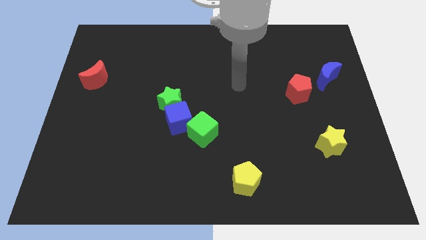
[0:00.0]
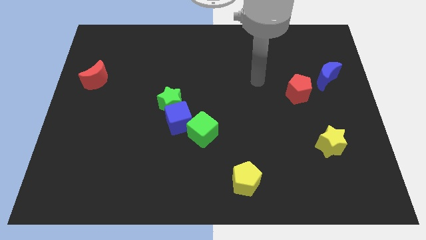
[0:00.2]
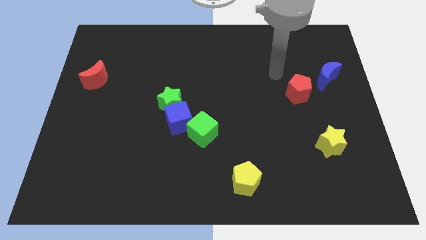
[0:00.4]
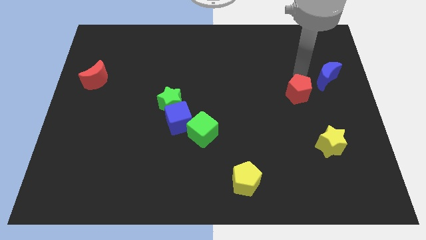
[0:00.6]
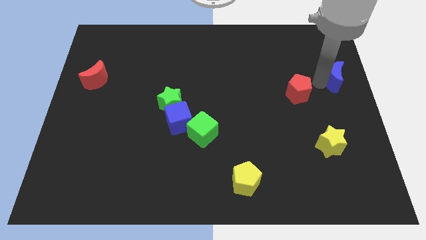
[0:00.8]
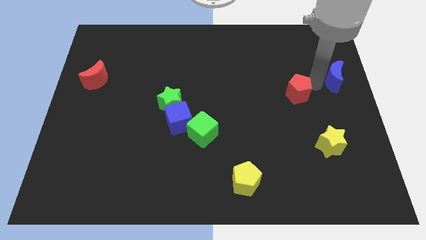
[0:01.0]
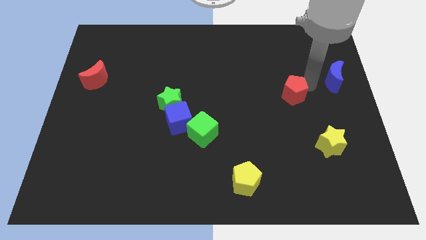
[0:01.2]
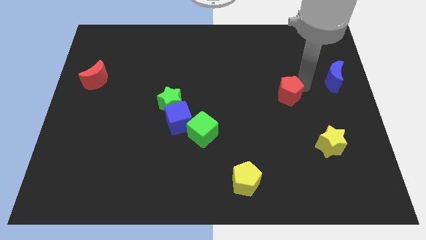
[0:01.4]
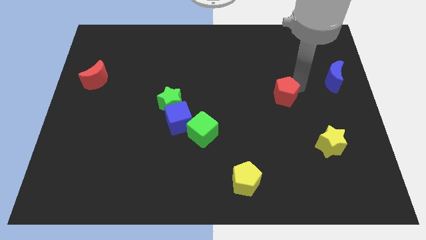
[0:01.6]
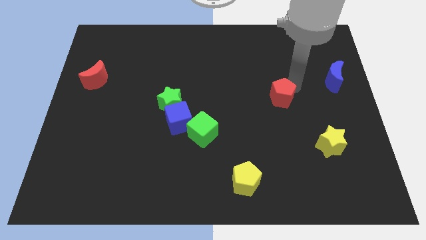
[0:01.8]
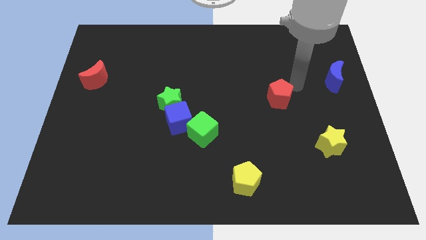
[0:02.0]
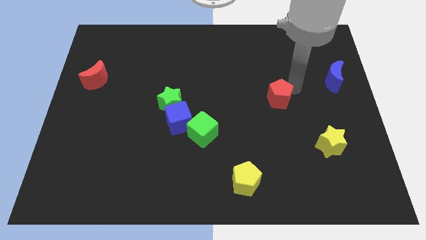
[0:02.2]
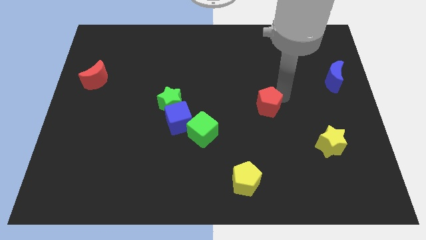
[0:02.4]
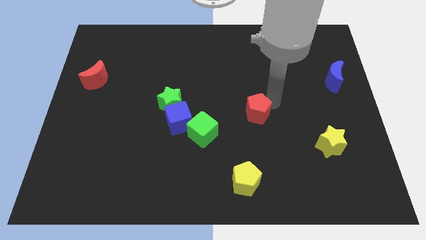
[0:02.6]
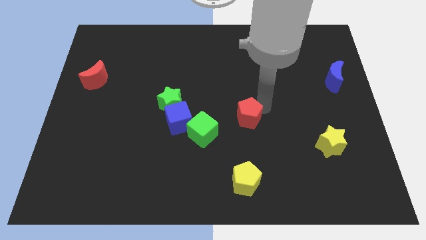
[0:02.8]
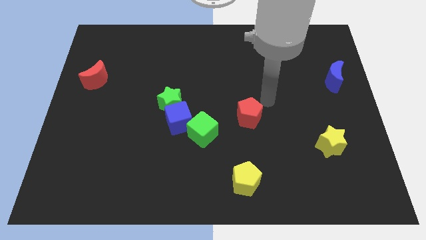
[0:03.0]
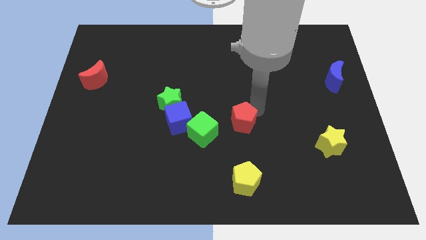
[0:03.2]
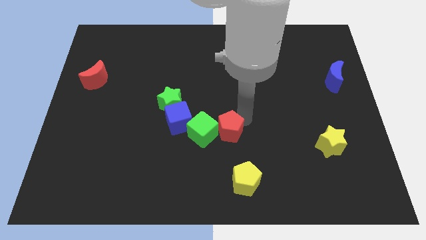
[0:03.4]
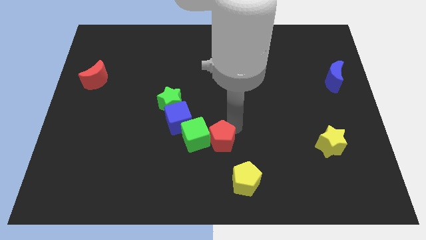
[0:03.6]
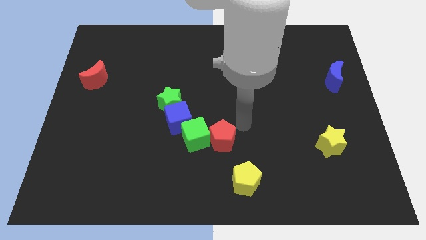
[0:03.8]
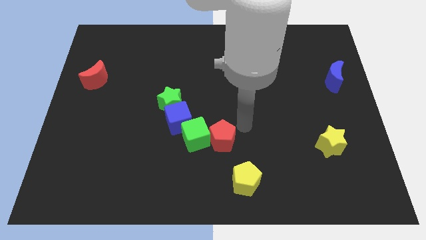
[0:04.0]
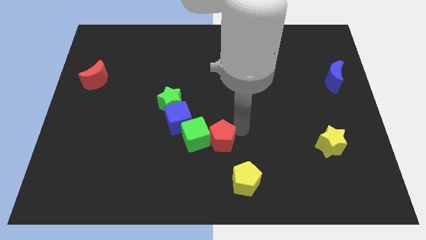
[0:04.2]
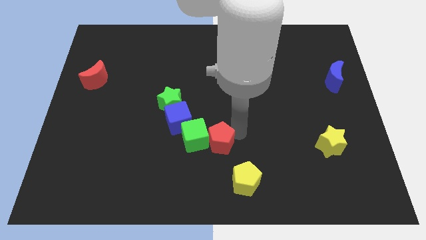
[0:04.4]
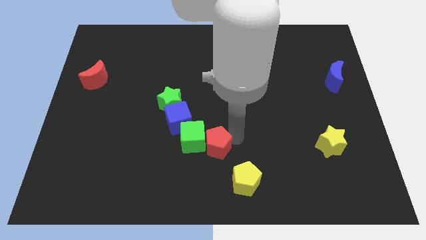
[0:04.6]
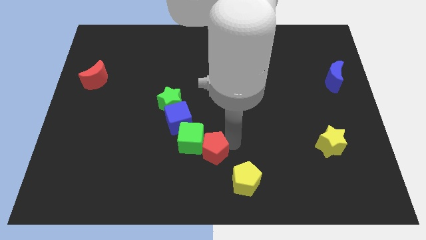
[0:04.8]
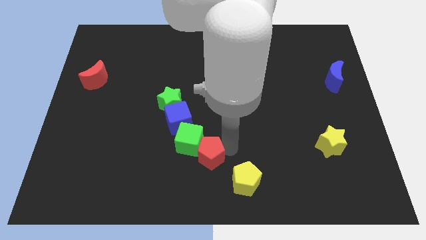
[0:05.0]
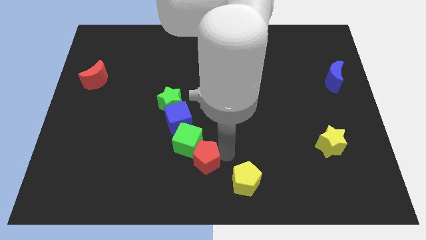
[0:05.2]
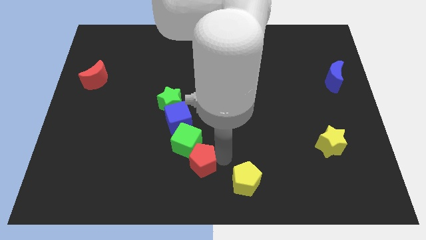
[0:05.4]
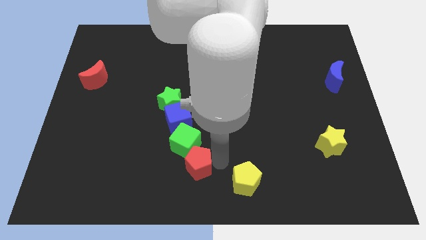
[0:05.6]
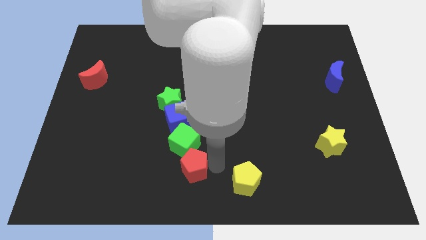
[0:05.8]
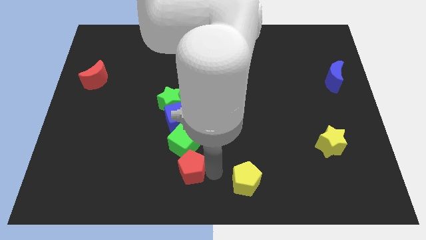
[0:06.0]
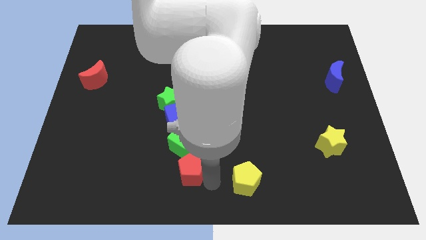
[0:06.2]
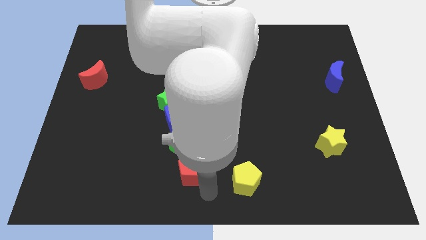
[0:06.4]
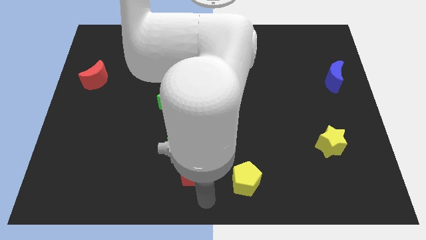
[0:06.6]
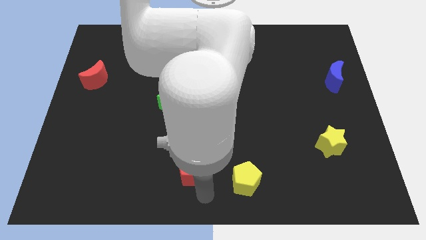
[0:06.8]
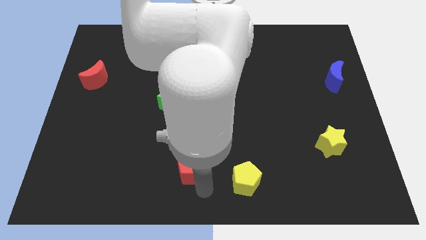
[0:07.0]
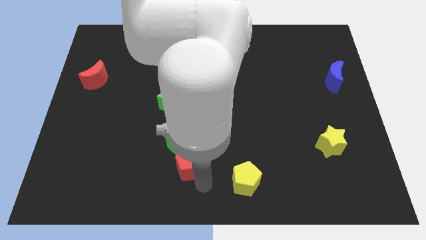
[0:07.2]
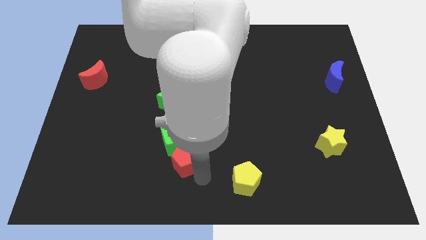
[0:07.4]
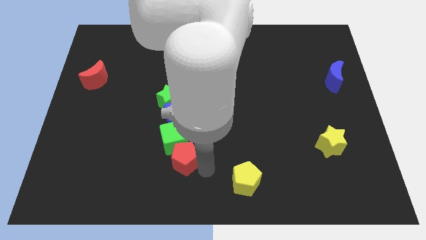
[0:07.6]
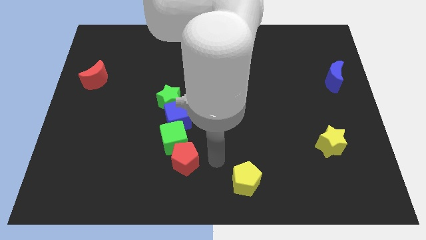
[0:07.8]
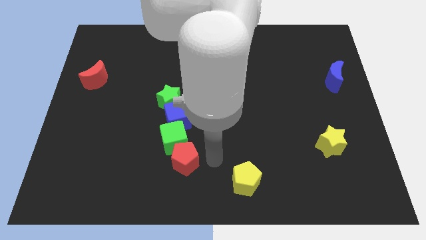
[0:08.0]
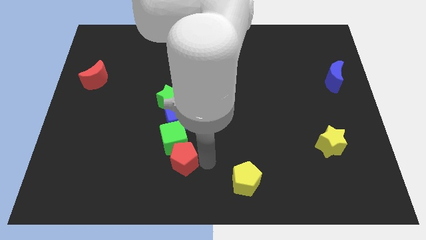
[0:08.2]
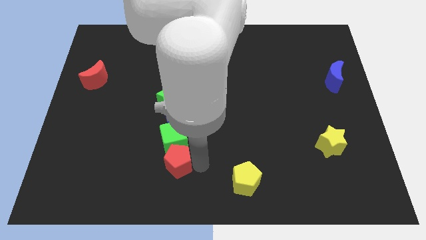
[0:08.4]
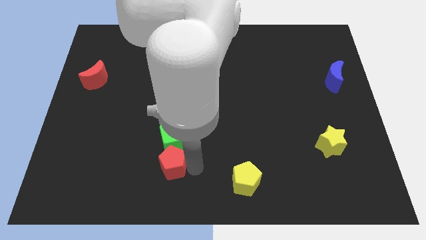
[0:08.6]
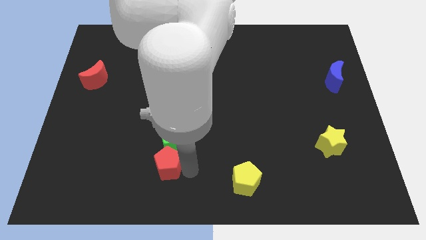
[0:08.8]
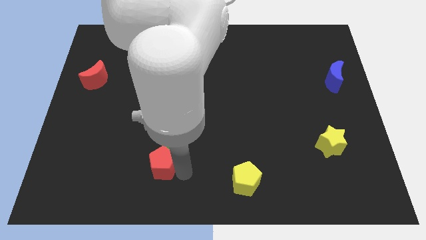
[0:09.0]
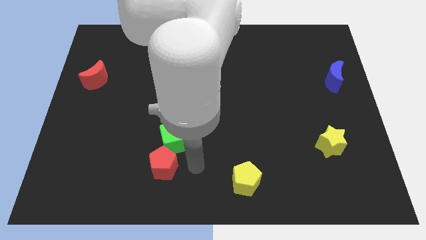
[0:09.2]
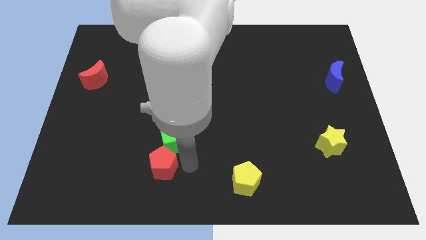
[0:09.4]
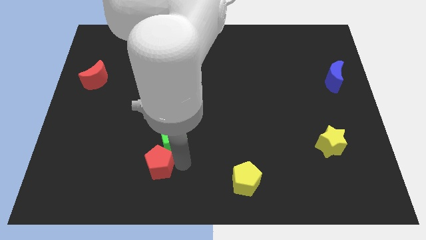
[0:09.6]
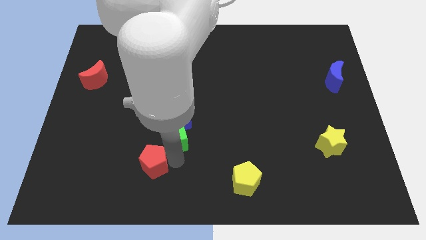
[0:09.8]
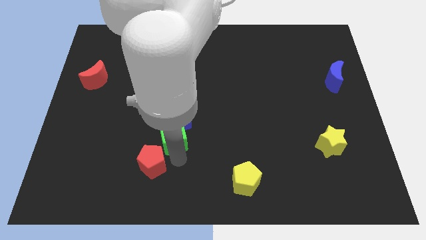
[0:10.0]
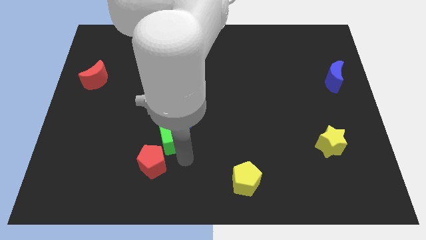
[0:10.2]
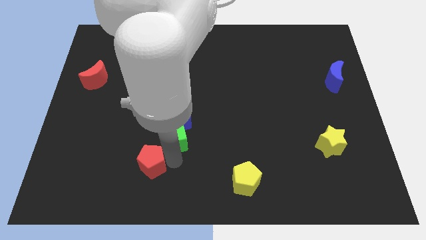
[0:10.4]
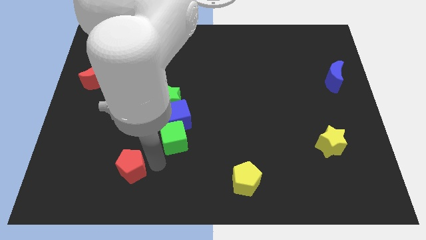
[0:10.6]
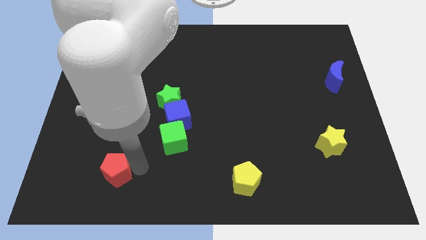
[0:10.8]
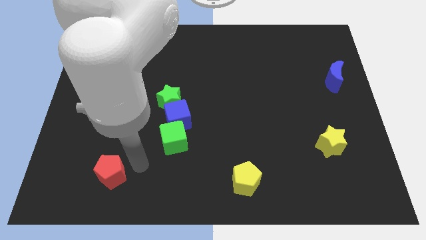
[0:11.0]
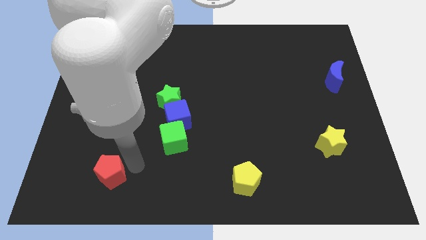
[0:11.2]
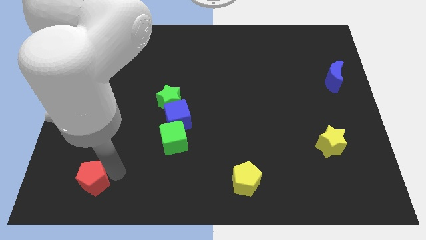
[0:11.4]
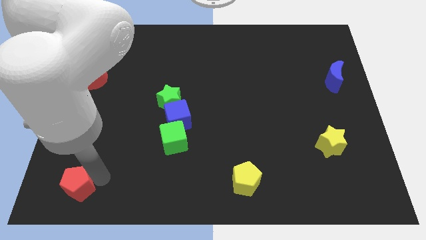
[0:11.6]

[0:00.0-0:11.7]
move the red pentagon to the lower left corner

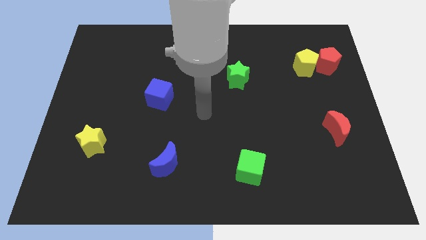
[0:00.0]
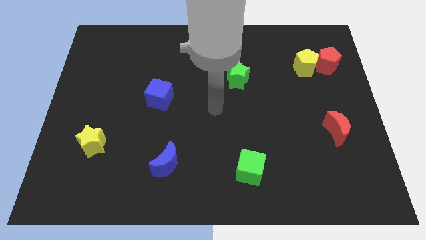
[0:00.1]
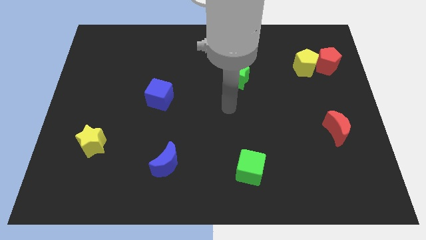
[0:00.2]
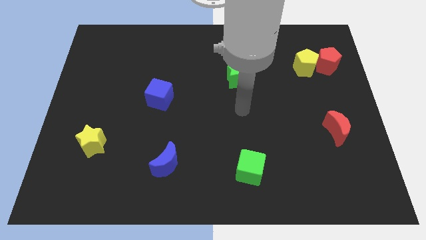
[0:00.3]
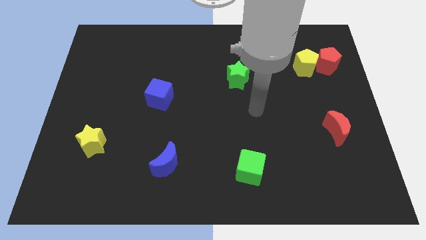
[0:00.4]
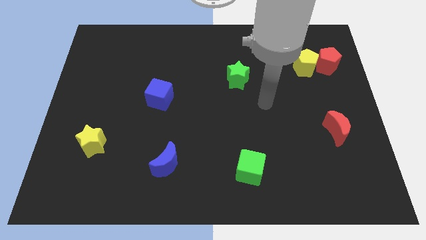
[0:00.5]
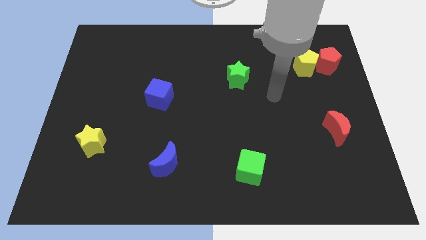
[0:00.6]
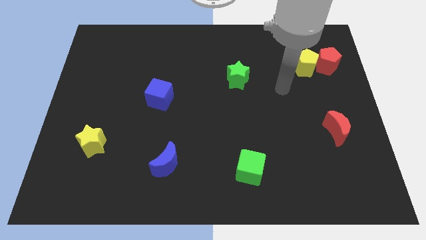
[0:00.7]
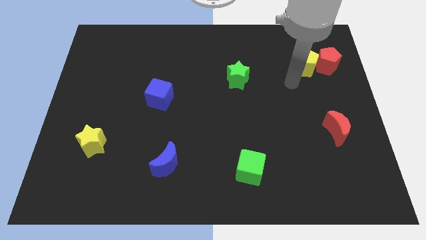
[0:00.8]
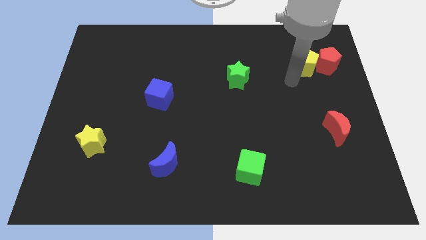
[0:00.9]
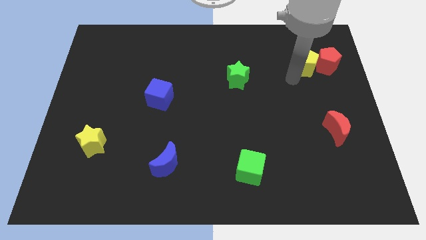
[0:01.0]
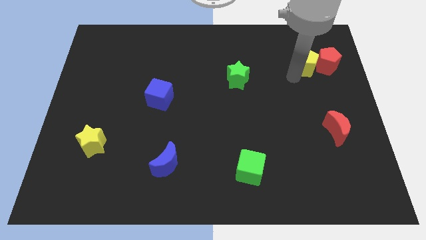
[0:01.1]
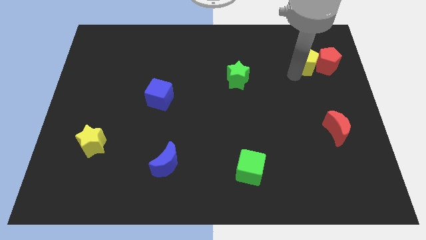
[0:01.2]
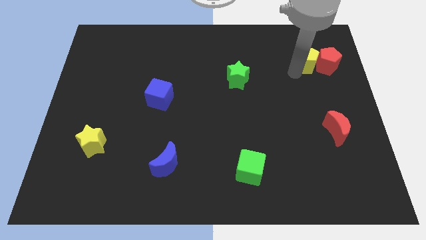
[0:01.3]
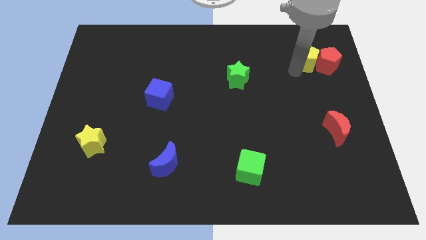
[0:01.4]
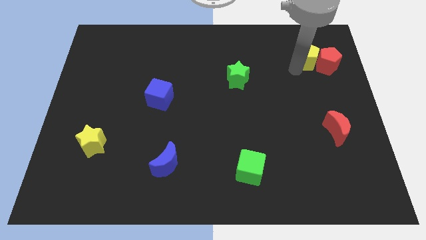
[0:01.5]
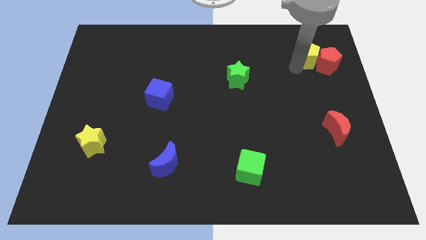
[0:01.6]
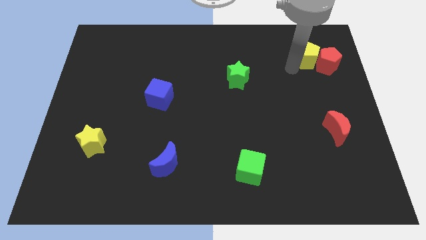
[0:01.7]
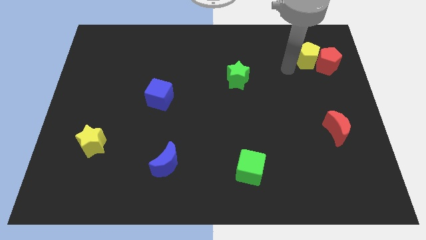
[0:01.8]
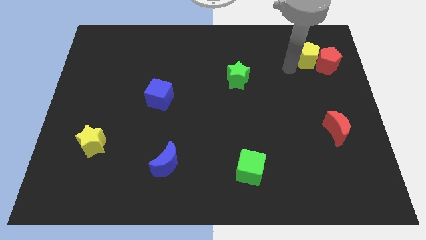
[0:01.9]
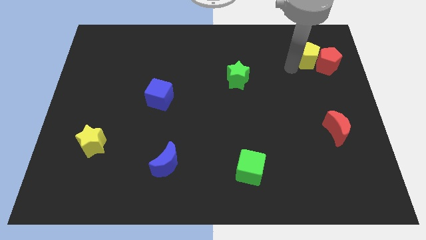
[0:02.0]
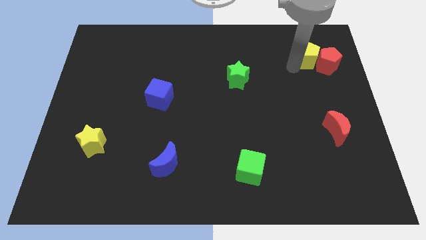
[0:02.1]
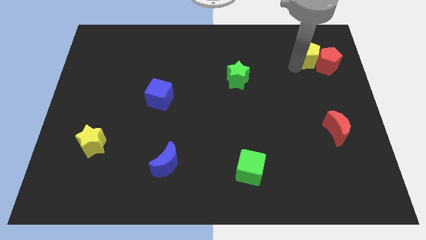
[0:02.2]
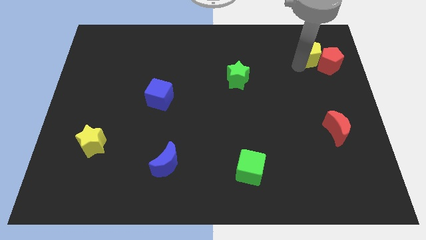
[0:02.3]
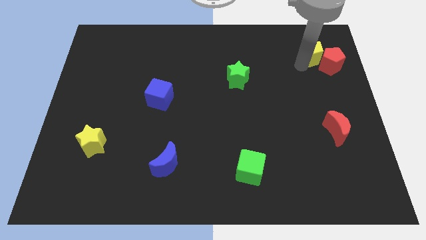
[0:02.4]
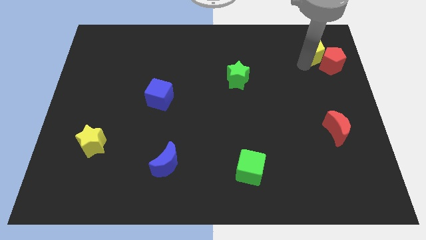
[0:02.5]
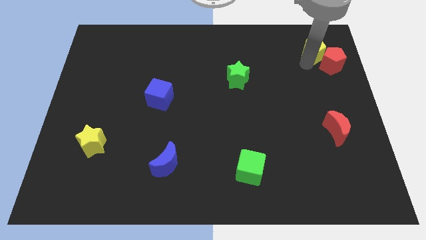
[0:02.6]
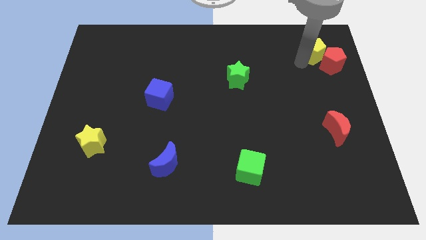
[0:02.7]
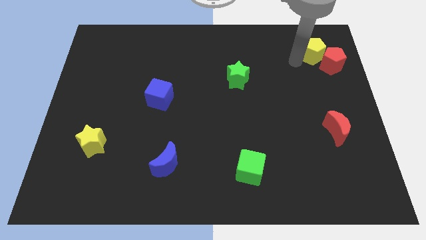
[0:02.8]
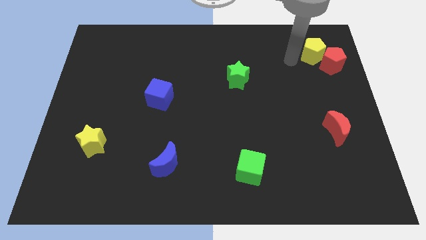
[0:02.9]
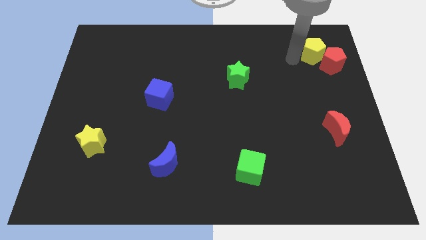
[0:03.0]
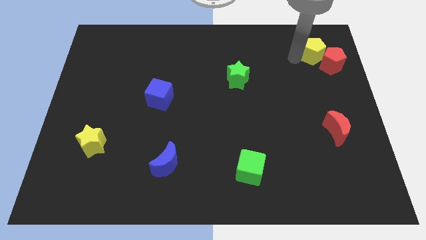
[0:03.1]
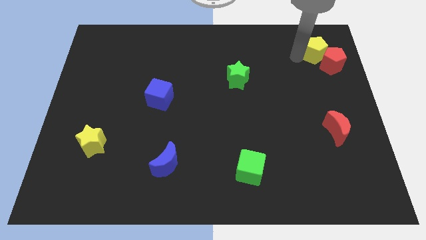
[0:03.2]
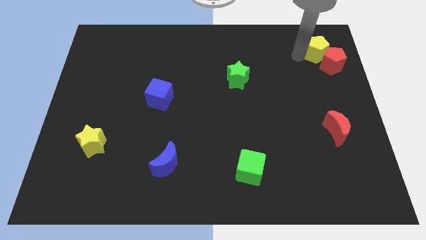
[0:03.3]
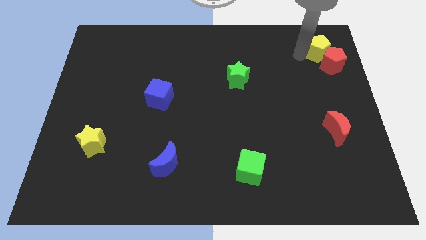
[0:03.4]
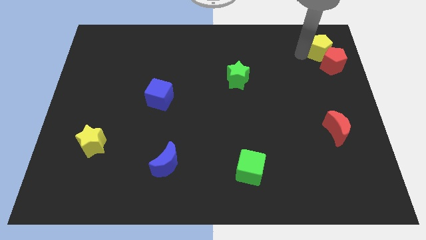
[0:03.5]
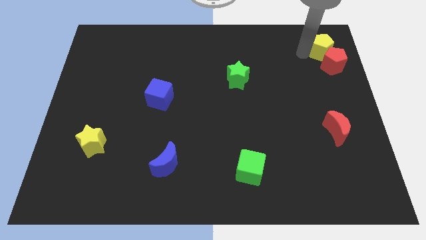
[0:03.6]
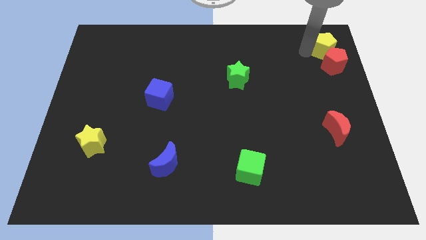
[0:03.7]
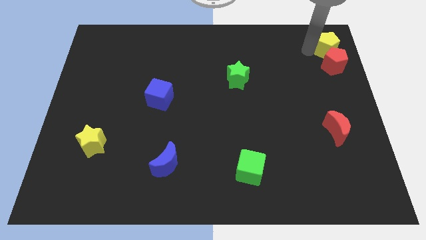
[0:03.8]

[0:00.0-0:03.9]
put the yellow pentagon to the top right
